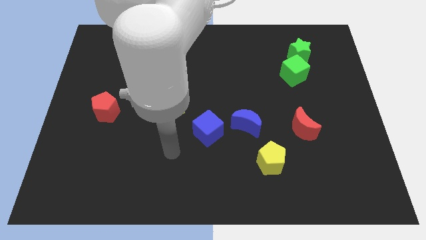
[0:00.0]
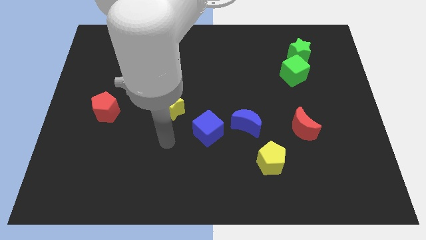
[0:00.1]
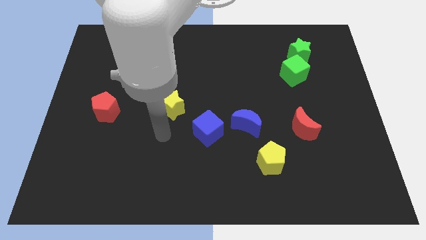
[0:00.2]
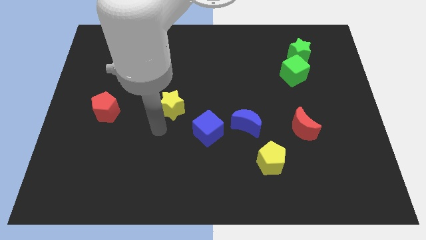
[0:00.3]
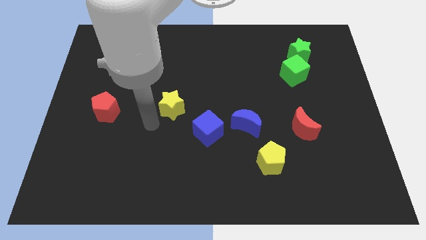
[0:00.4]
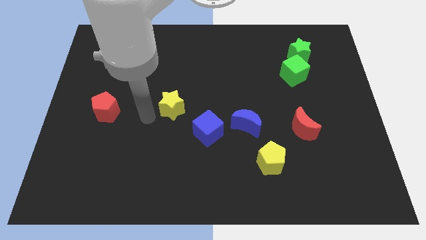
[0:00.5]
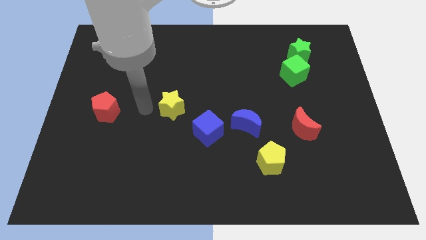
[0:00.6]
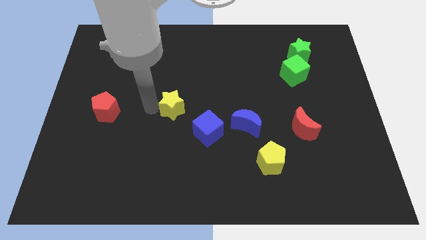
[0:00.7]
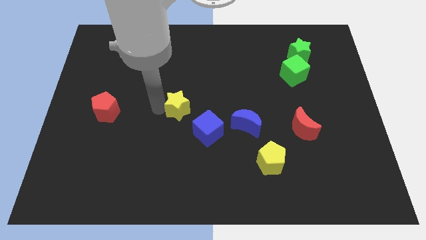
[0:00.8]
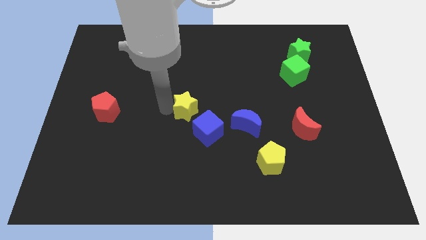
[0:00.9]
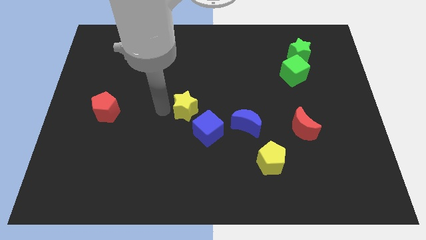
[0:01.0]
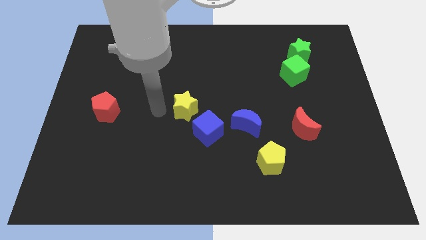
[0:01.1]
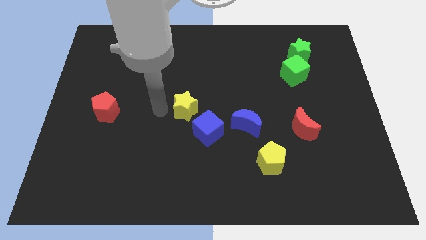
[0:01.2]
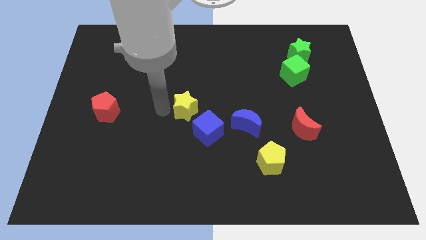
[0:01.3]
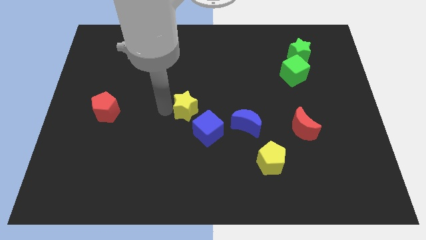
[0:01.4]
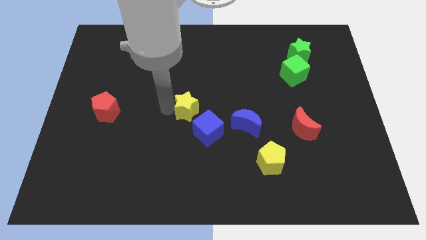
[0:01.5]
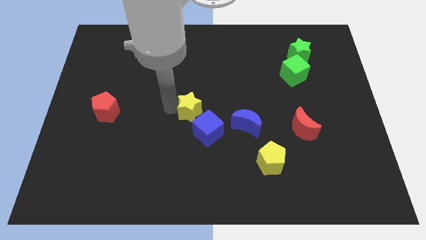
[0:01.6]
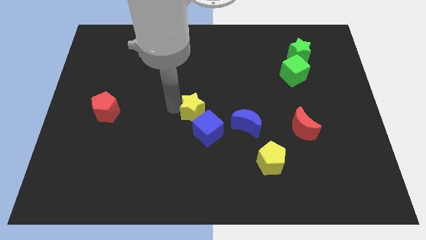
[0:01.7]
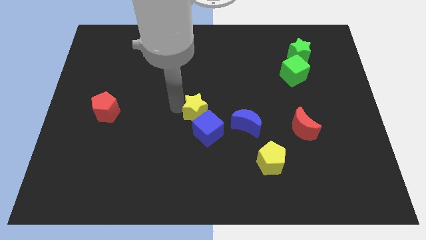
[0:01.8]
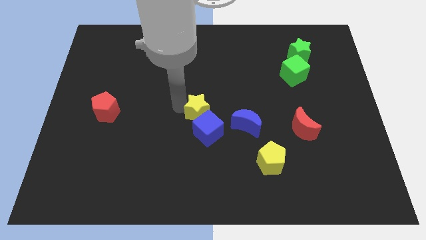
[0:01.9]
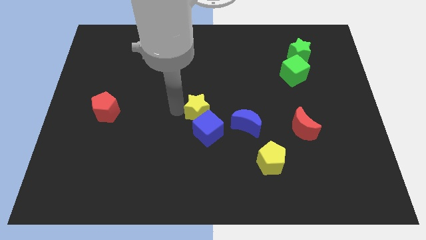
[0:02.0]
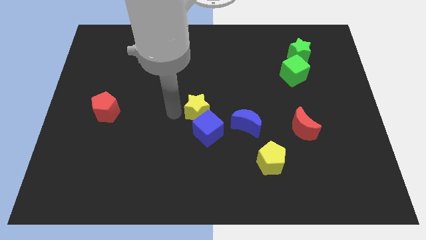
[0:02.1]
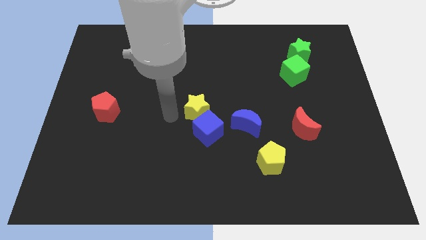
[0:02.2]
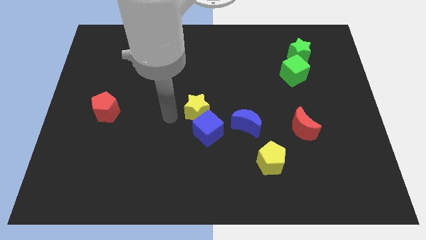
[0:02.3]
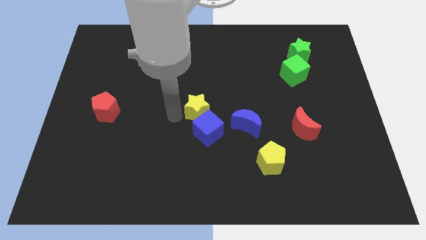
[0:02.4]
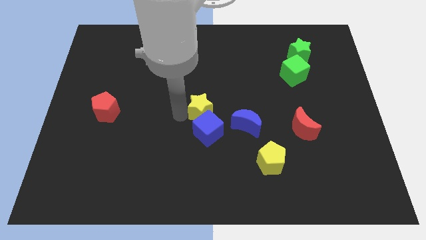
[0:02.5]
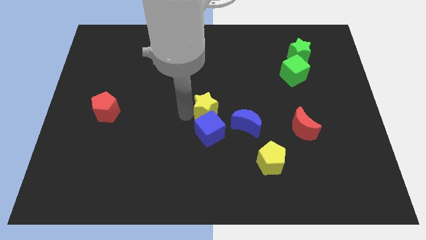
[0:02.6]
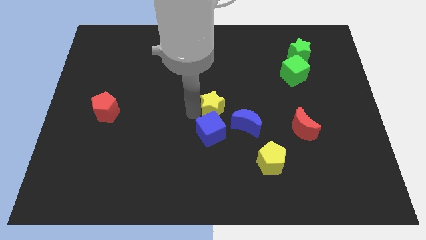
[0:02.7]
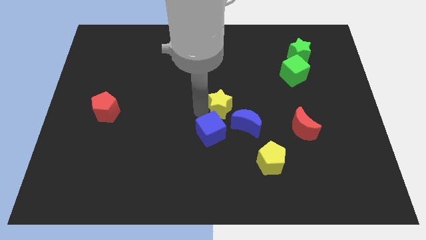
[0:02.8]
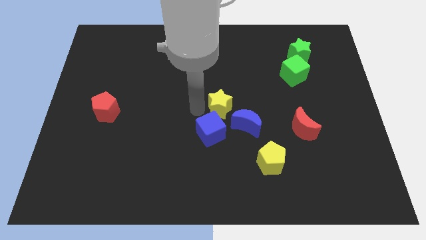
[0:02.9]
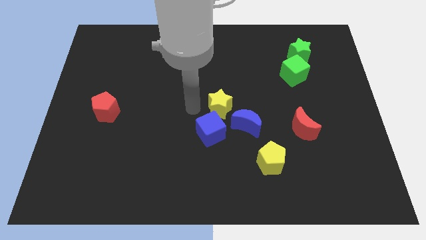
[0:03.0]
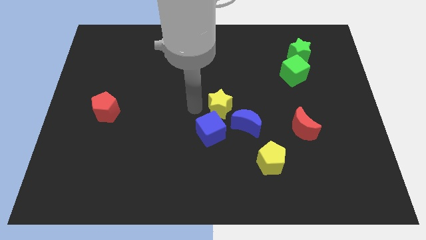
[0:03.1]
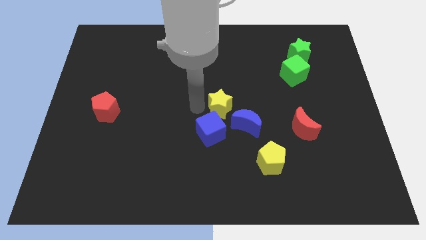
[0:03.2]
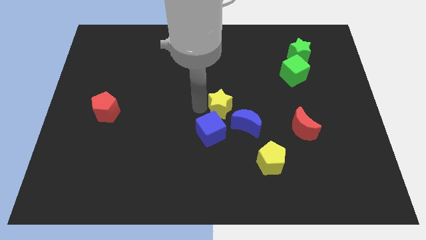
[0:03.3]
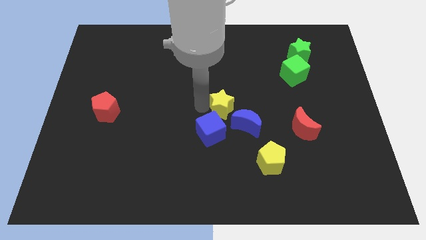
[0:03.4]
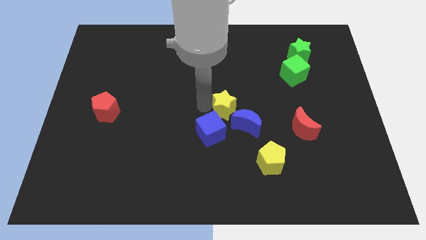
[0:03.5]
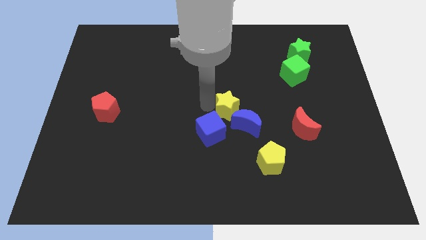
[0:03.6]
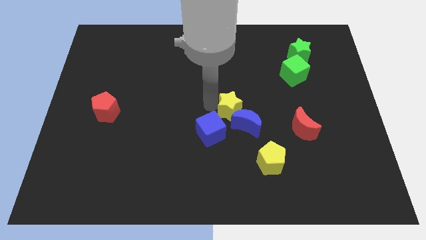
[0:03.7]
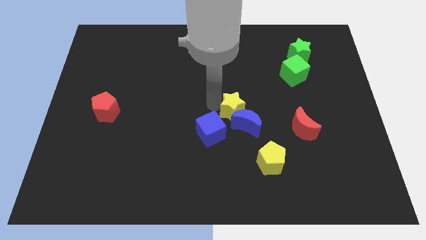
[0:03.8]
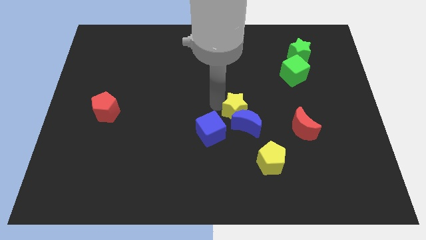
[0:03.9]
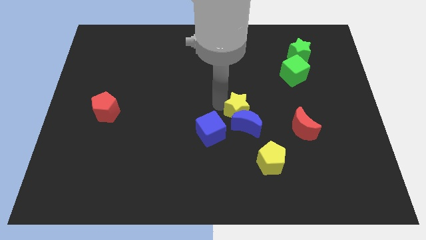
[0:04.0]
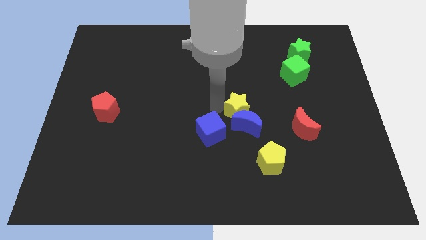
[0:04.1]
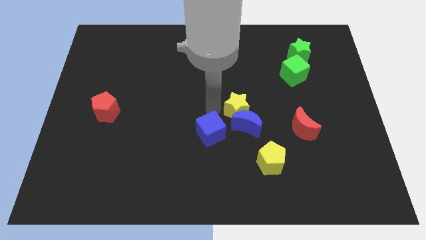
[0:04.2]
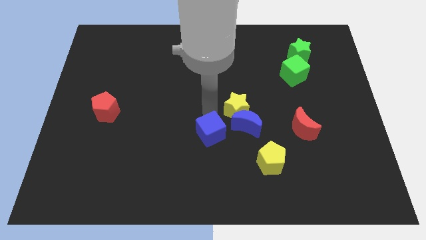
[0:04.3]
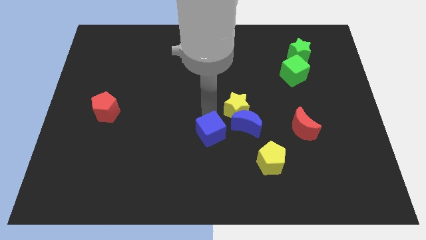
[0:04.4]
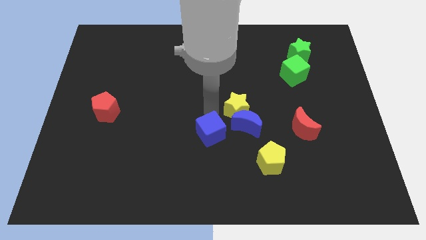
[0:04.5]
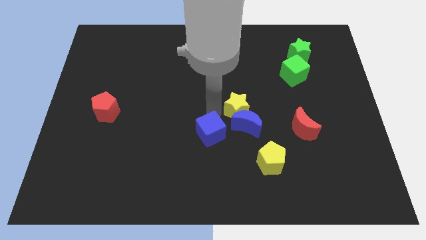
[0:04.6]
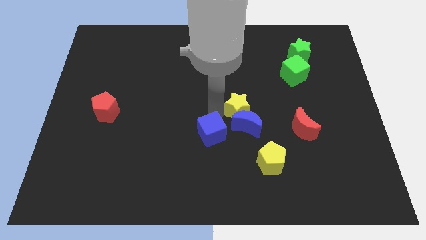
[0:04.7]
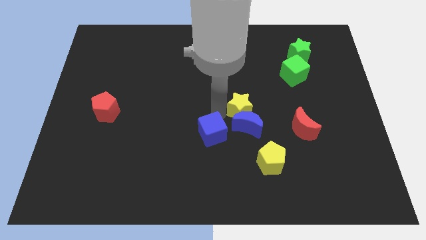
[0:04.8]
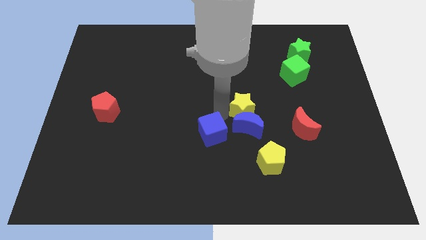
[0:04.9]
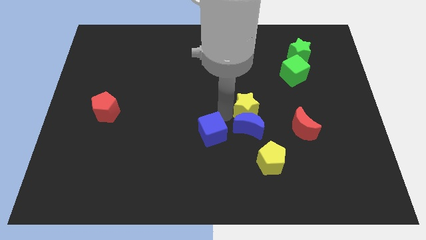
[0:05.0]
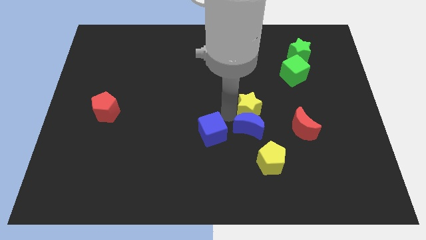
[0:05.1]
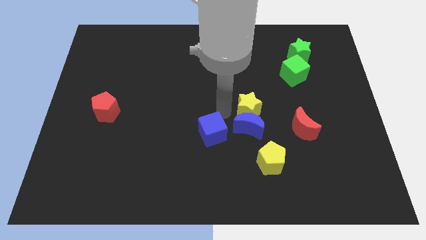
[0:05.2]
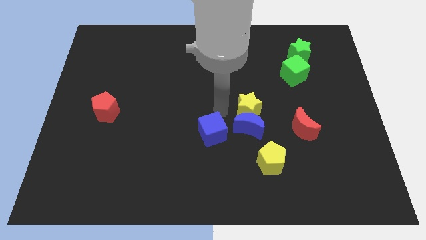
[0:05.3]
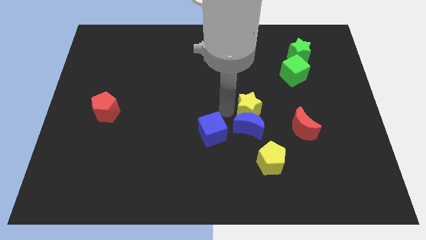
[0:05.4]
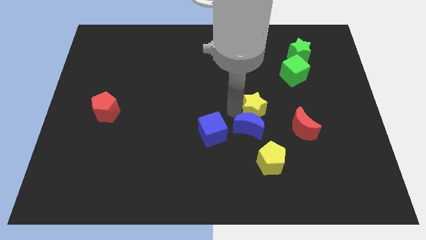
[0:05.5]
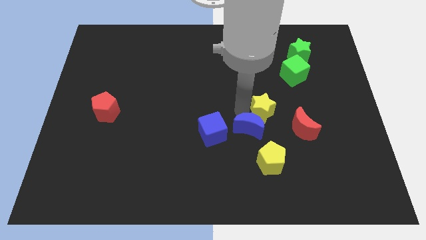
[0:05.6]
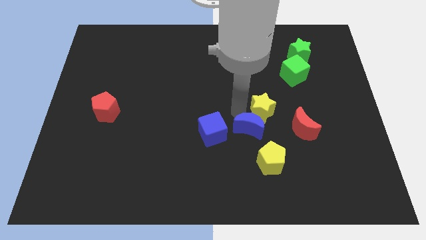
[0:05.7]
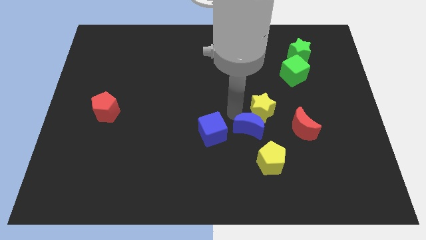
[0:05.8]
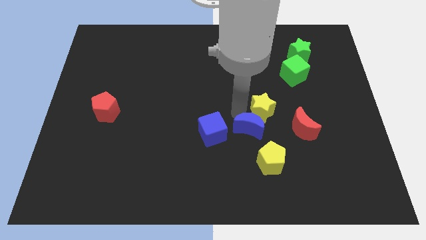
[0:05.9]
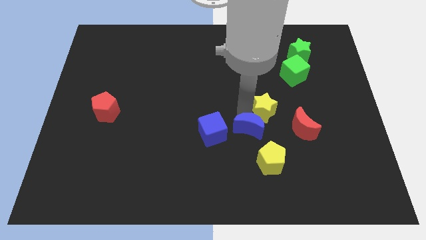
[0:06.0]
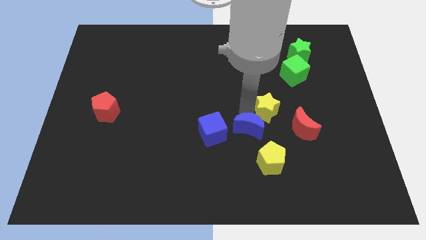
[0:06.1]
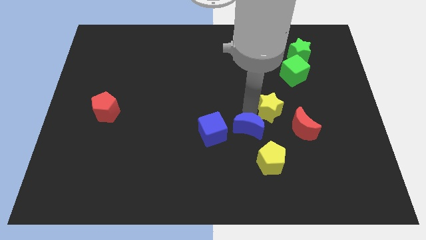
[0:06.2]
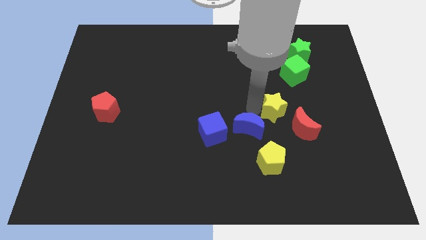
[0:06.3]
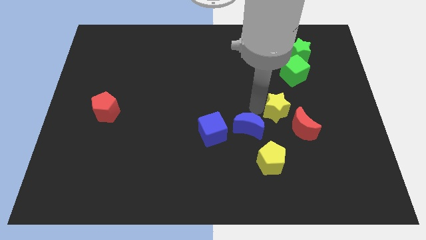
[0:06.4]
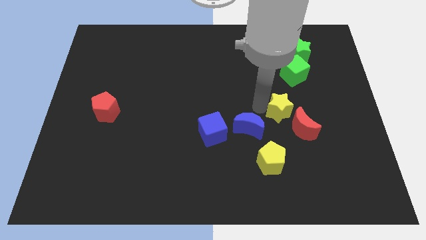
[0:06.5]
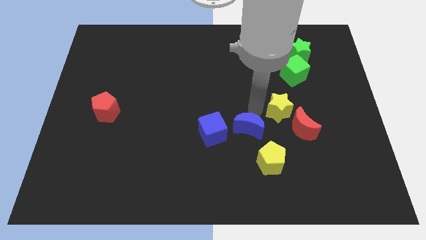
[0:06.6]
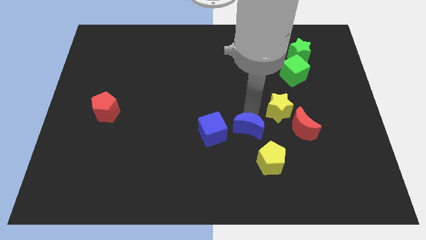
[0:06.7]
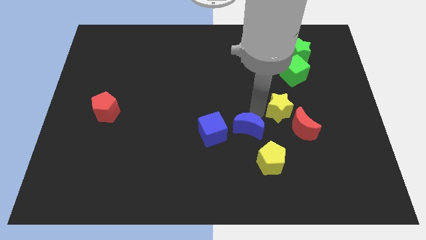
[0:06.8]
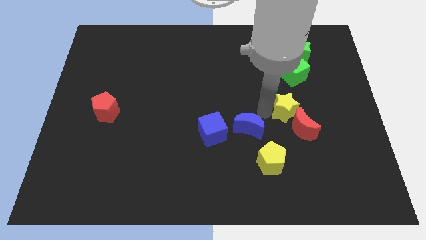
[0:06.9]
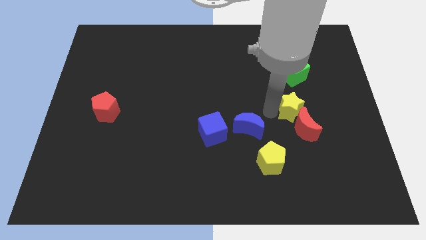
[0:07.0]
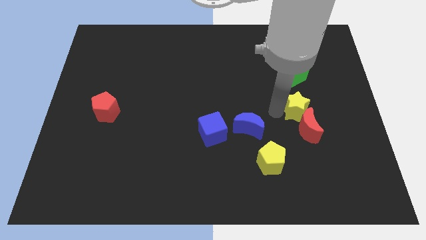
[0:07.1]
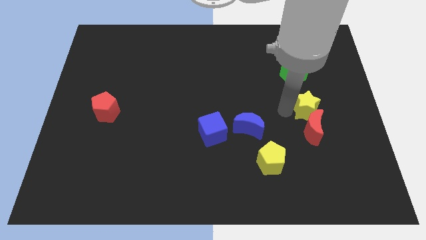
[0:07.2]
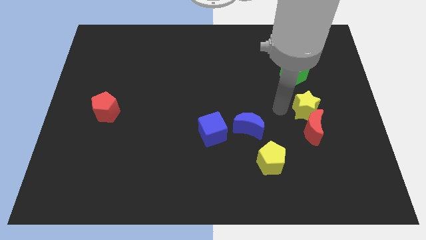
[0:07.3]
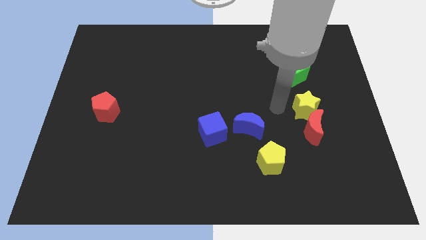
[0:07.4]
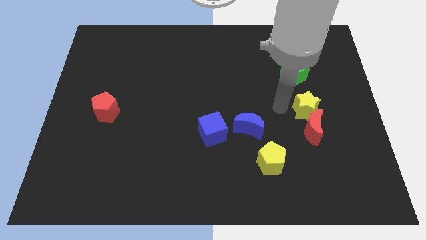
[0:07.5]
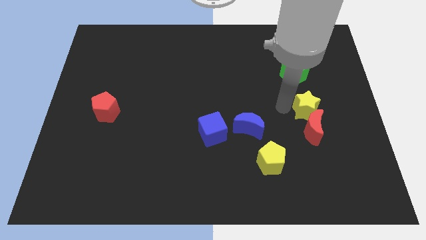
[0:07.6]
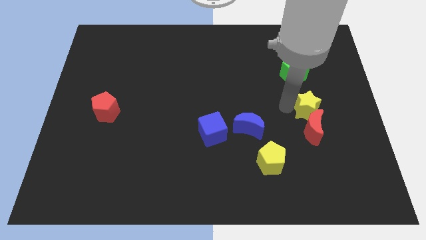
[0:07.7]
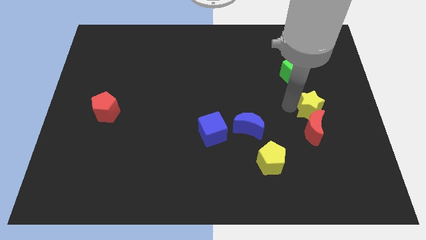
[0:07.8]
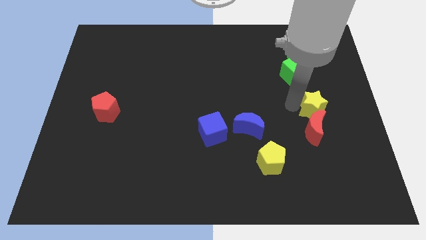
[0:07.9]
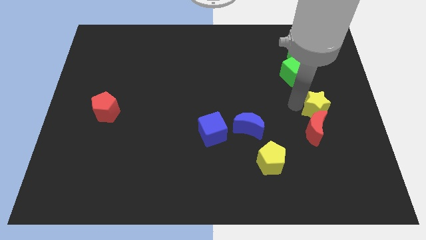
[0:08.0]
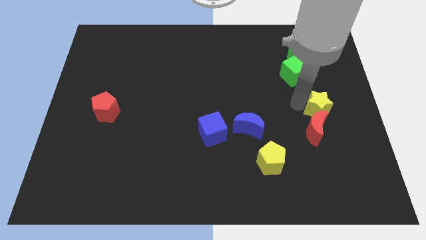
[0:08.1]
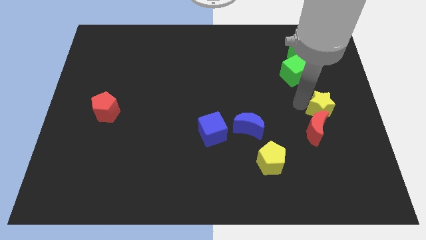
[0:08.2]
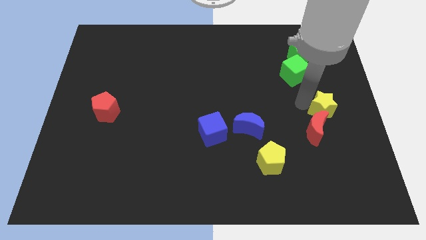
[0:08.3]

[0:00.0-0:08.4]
slide the yellow star to the center right
